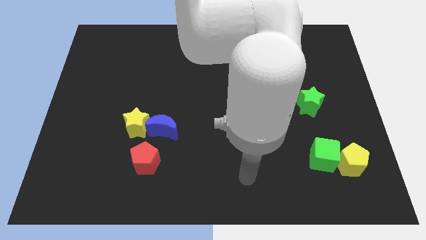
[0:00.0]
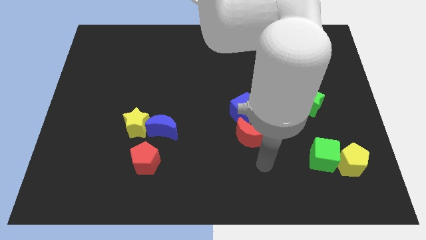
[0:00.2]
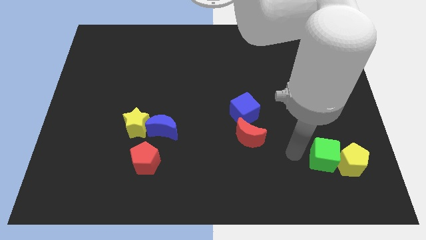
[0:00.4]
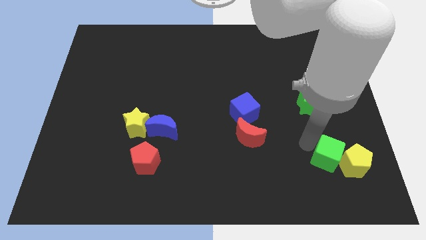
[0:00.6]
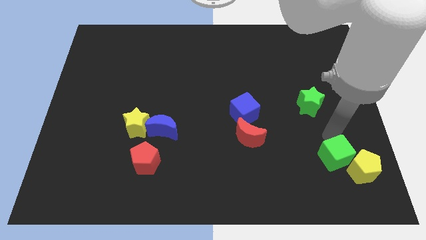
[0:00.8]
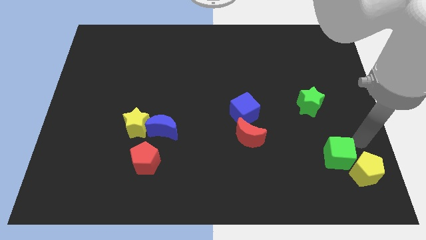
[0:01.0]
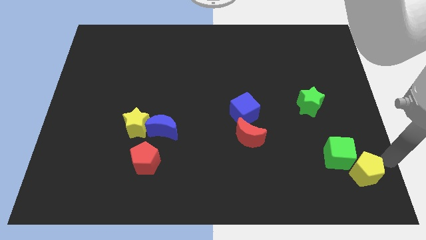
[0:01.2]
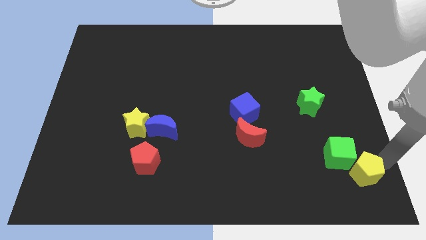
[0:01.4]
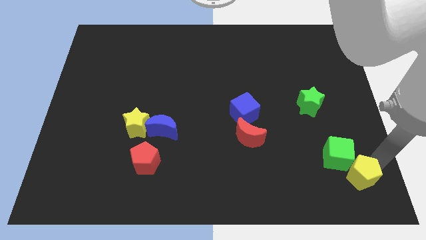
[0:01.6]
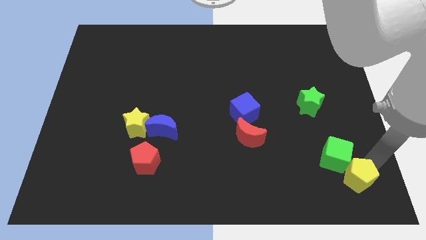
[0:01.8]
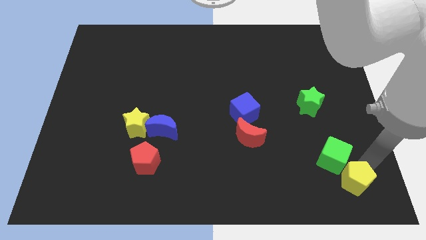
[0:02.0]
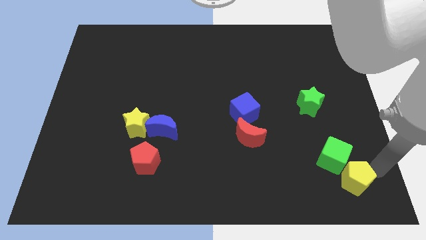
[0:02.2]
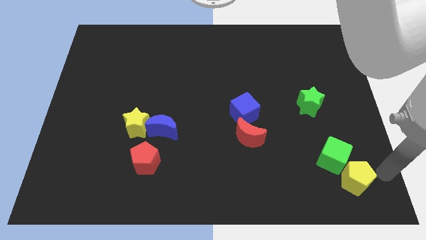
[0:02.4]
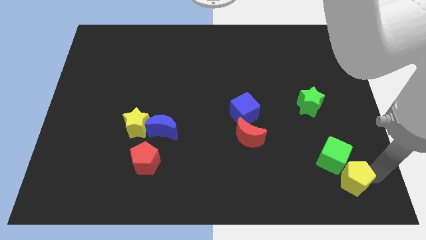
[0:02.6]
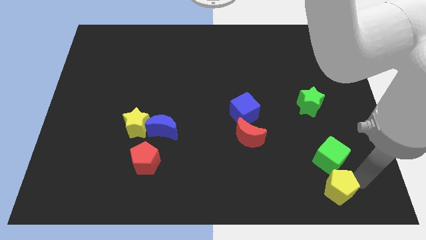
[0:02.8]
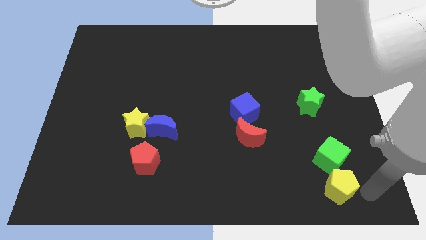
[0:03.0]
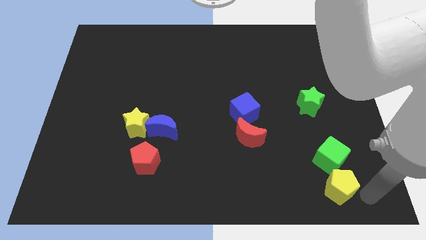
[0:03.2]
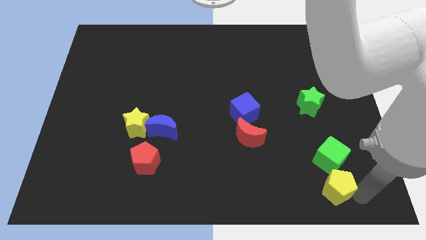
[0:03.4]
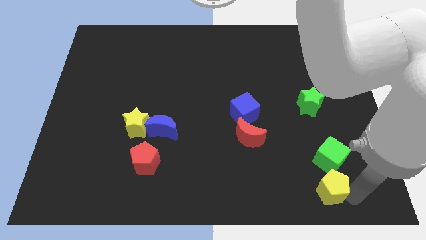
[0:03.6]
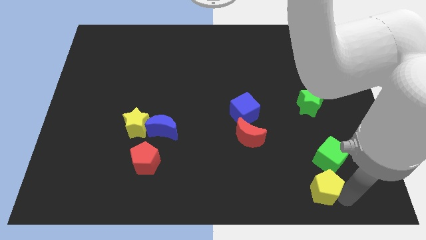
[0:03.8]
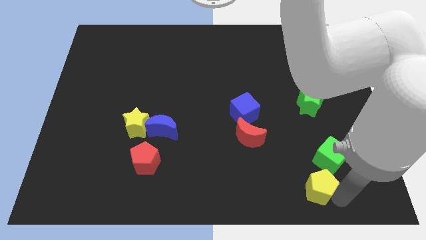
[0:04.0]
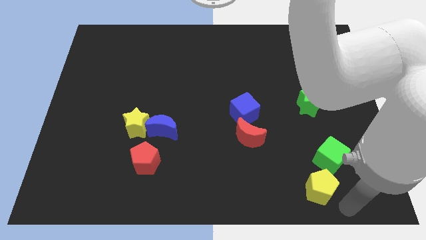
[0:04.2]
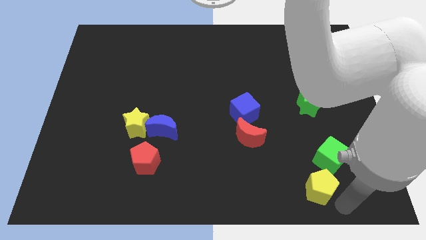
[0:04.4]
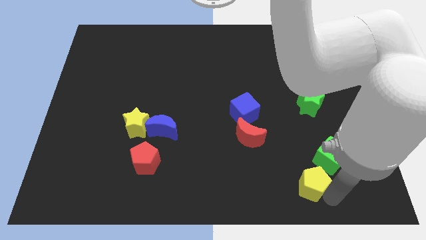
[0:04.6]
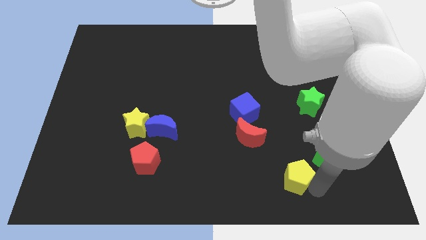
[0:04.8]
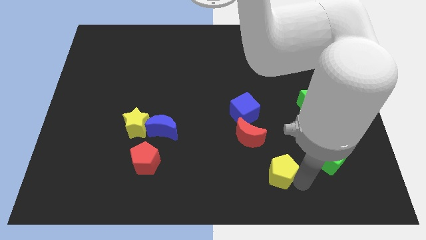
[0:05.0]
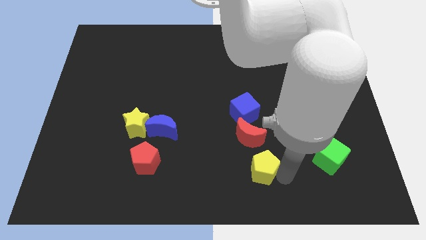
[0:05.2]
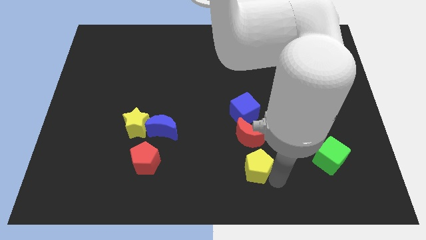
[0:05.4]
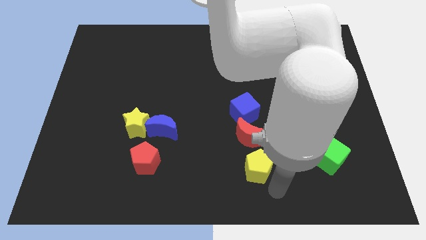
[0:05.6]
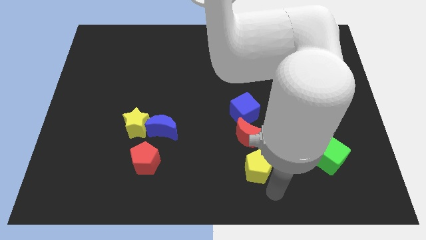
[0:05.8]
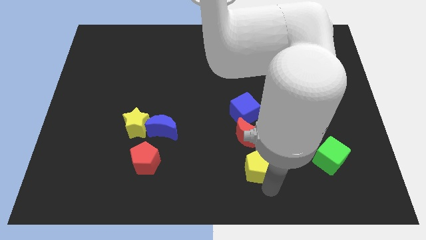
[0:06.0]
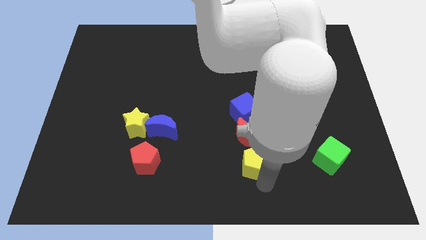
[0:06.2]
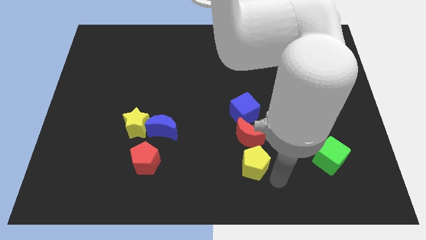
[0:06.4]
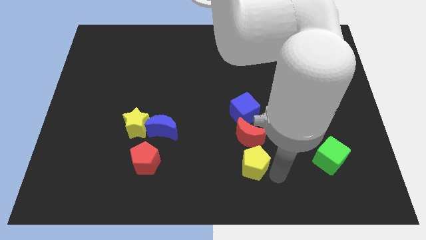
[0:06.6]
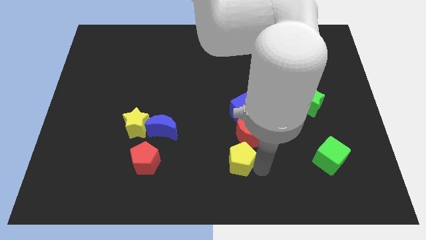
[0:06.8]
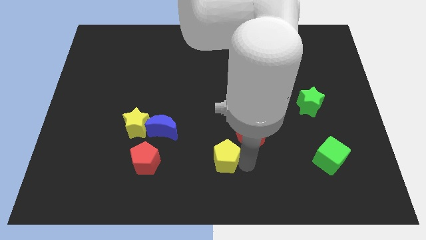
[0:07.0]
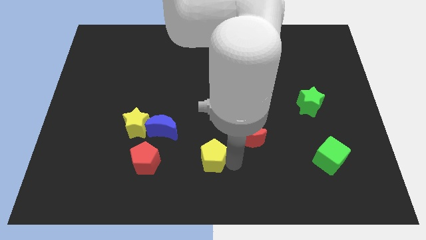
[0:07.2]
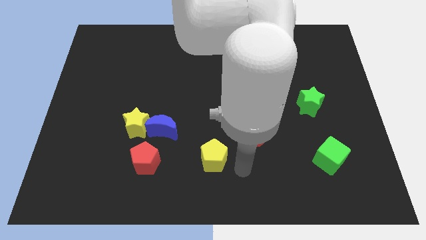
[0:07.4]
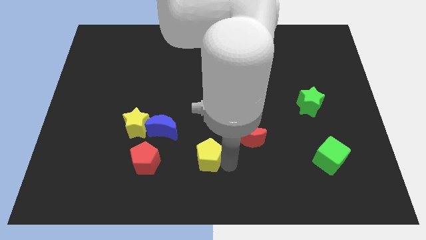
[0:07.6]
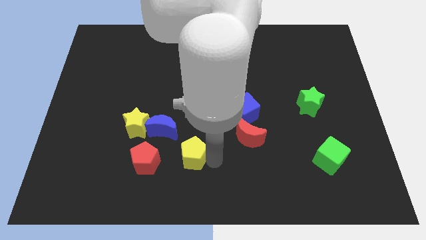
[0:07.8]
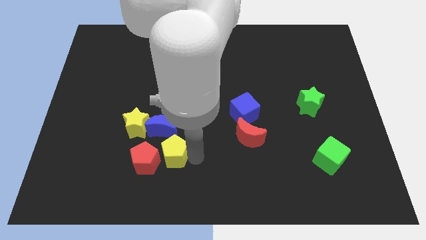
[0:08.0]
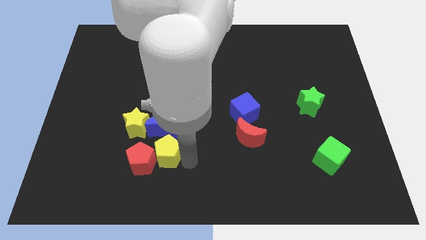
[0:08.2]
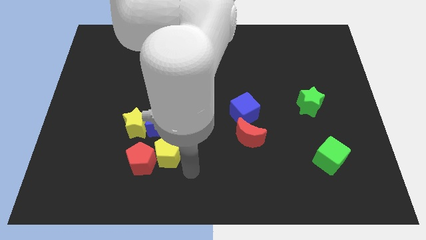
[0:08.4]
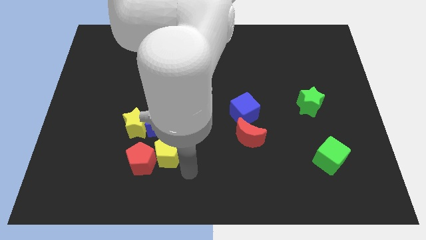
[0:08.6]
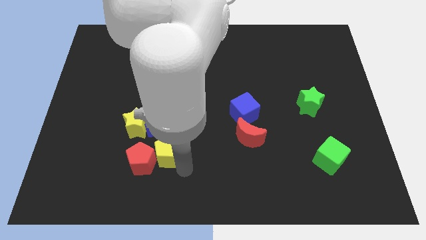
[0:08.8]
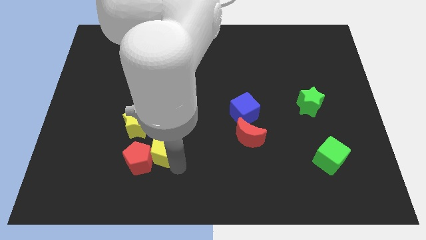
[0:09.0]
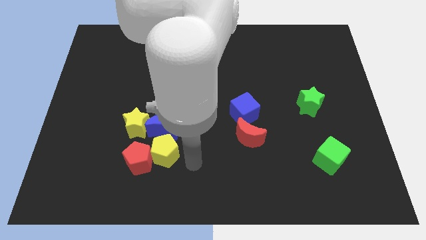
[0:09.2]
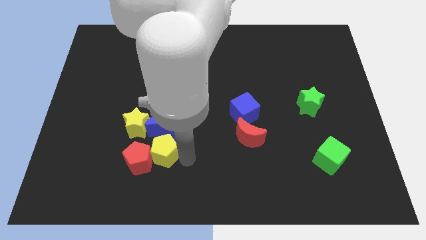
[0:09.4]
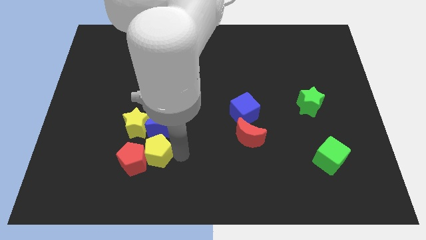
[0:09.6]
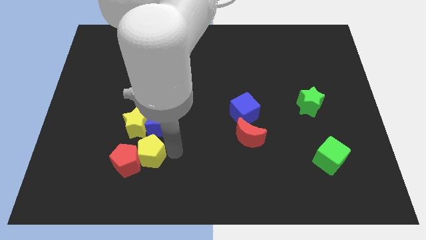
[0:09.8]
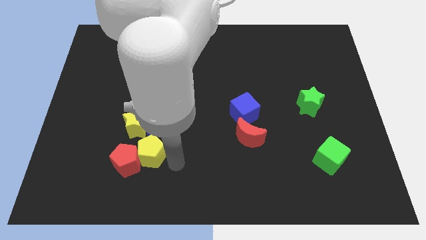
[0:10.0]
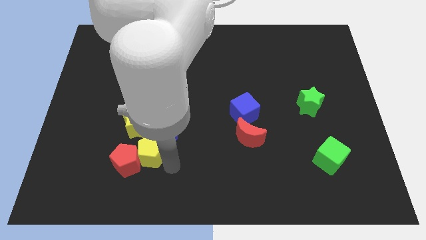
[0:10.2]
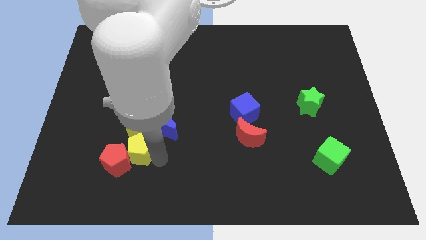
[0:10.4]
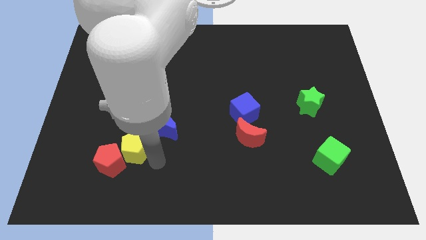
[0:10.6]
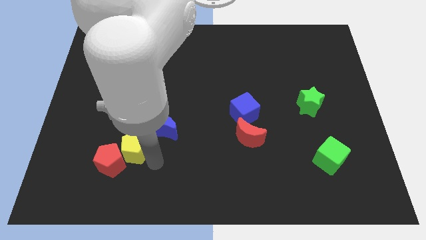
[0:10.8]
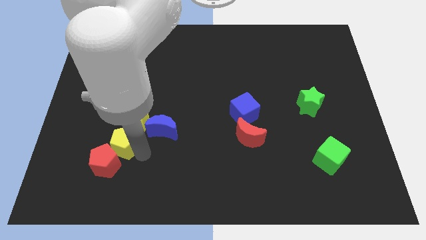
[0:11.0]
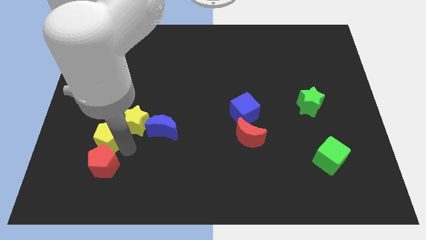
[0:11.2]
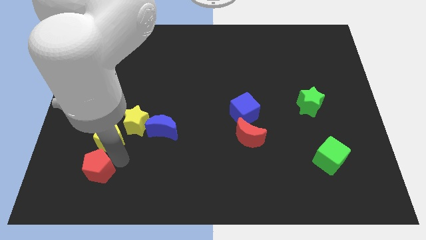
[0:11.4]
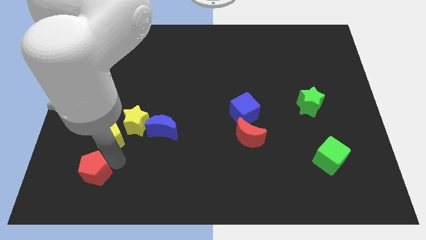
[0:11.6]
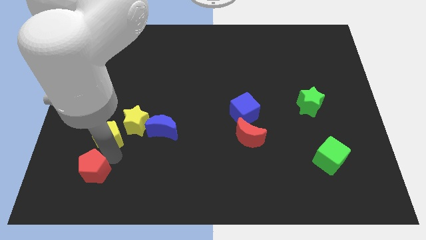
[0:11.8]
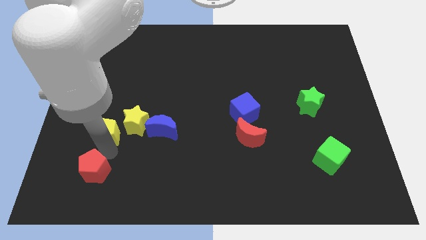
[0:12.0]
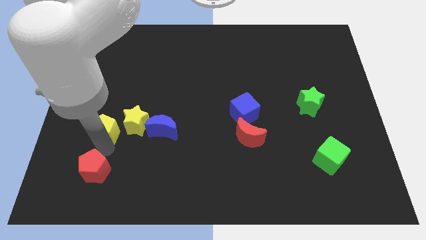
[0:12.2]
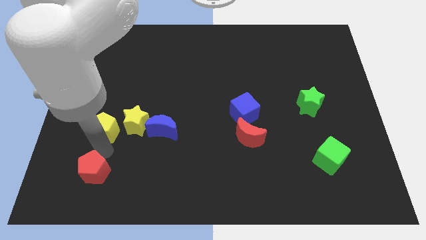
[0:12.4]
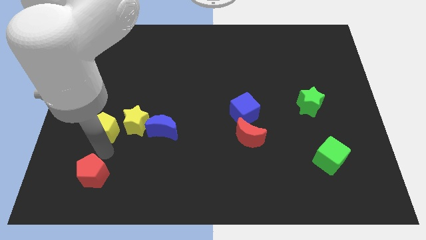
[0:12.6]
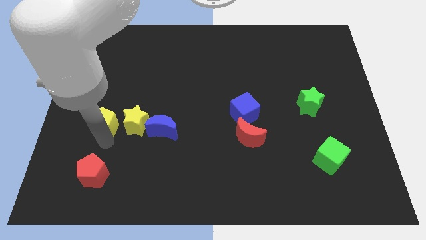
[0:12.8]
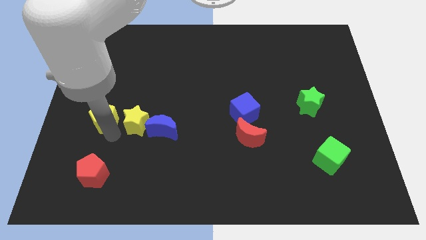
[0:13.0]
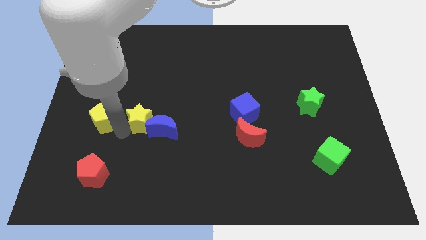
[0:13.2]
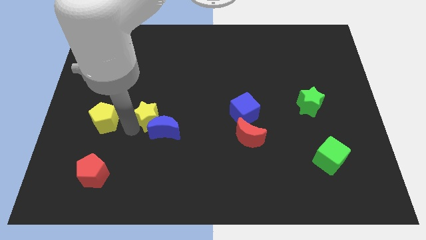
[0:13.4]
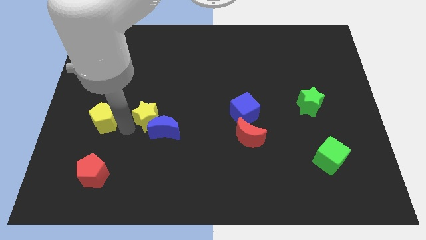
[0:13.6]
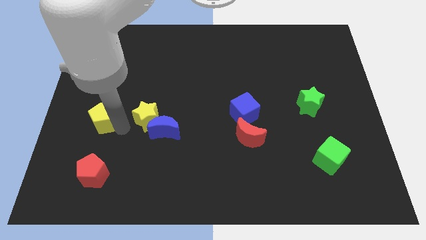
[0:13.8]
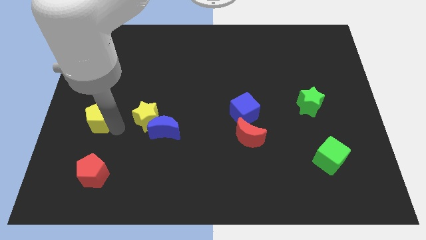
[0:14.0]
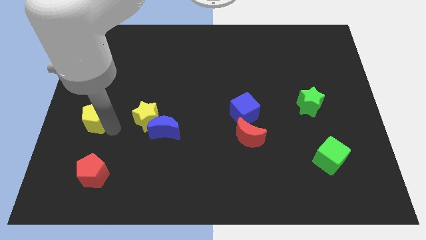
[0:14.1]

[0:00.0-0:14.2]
put the yellow pentagon to the left side of the board
